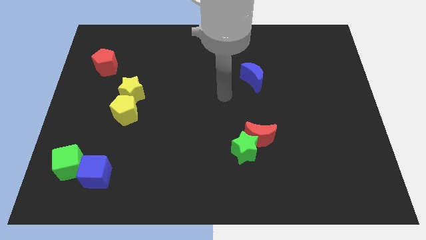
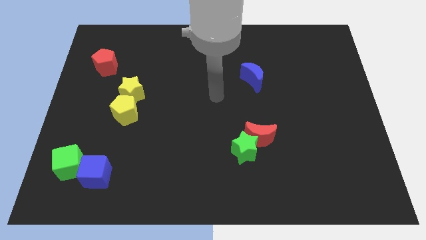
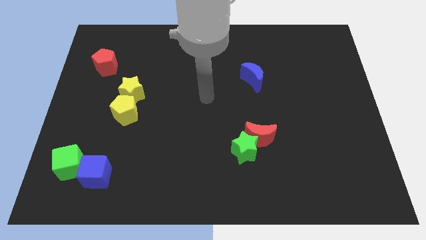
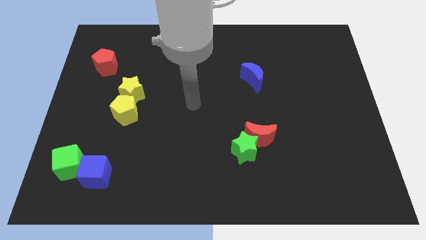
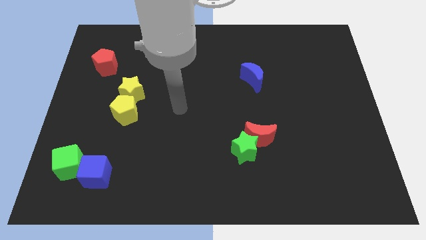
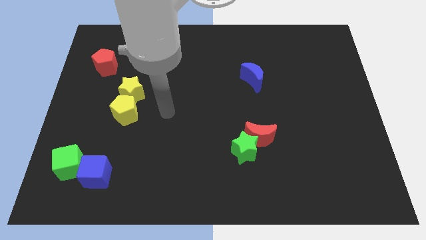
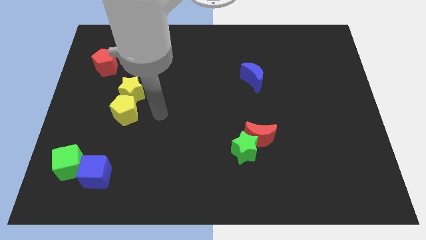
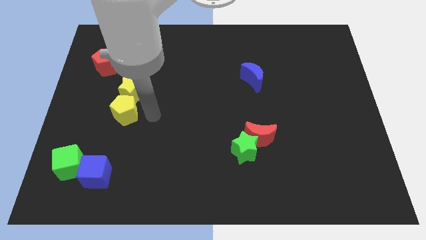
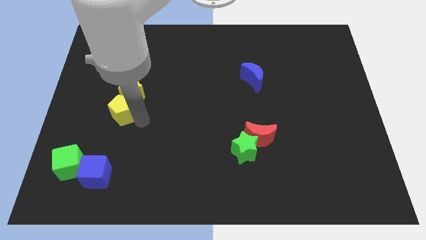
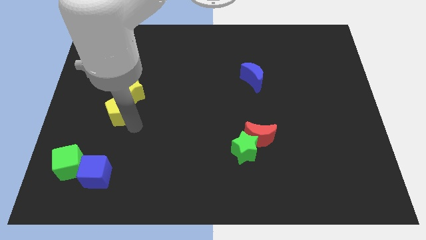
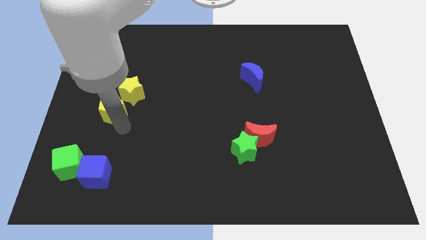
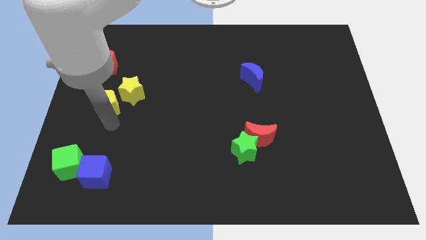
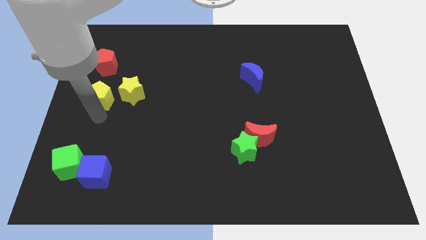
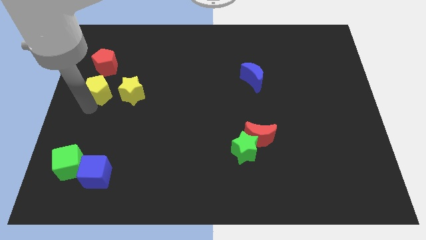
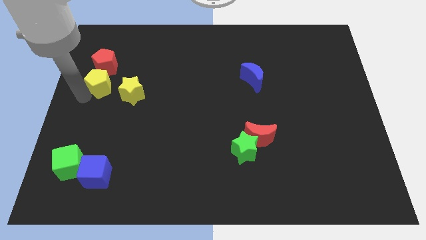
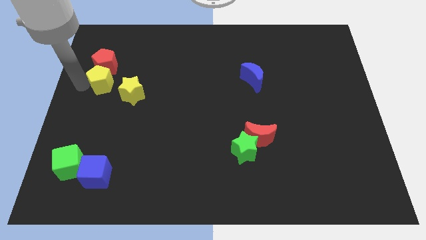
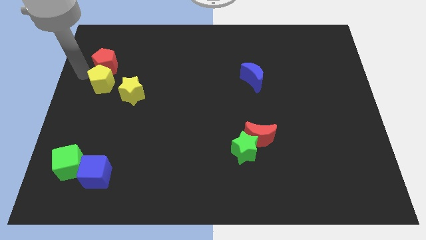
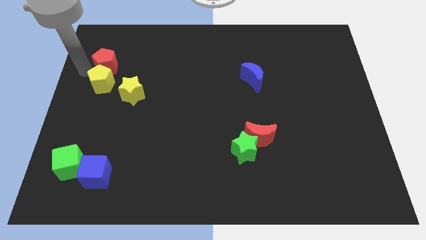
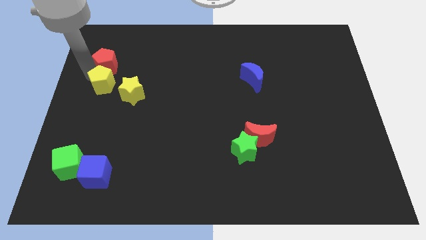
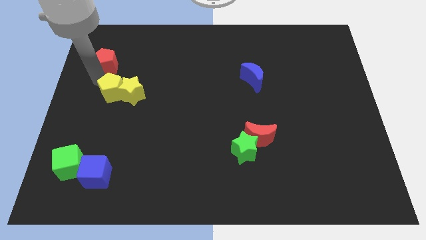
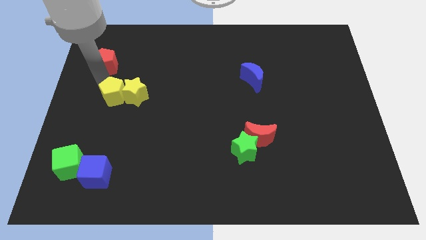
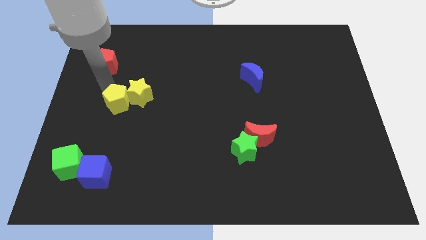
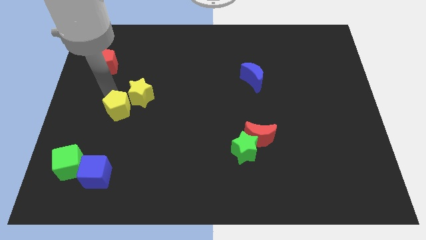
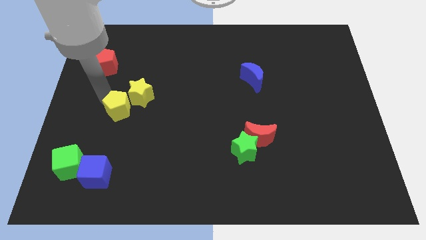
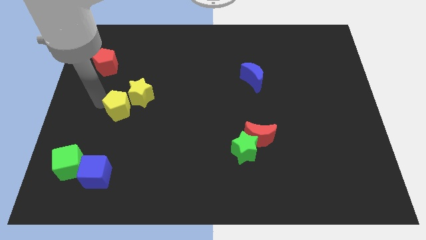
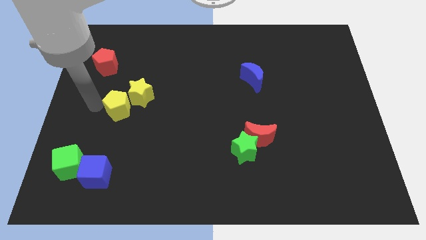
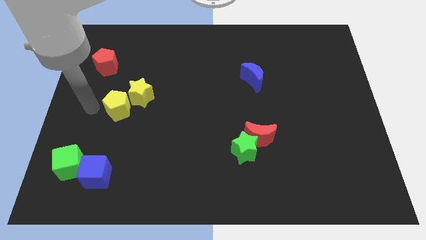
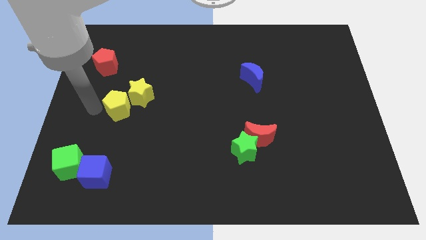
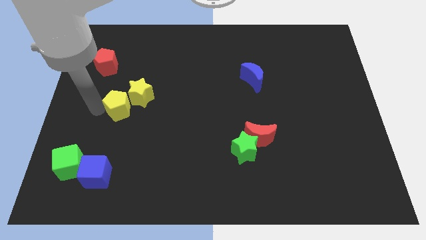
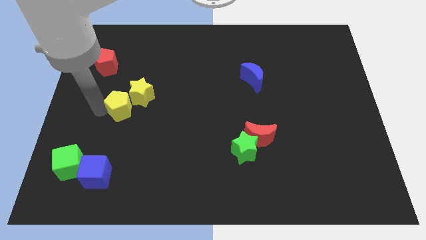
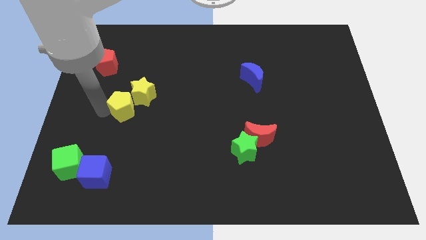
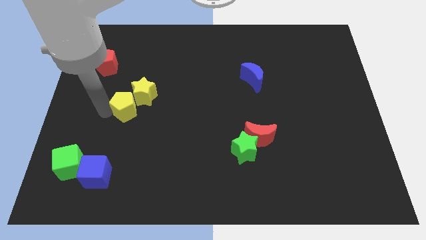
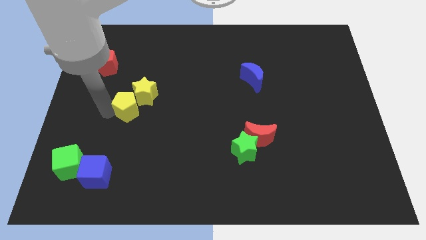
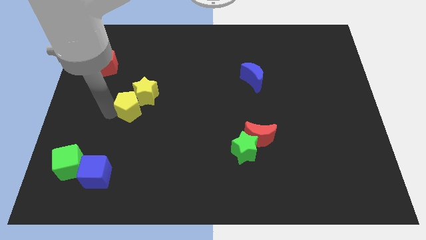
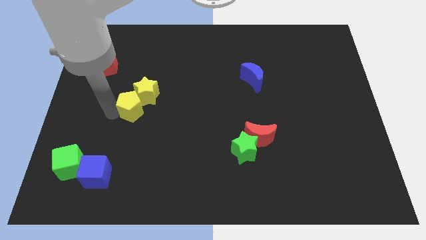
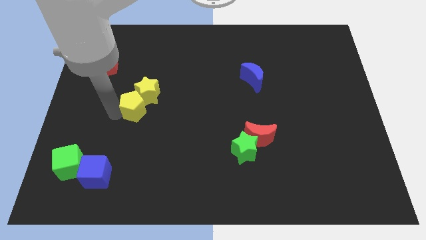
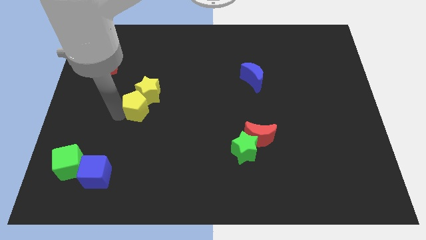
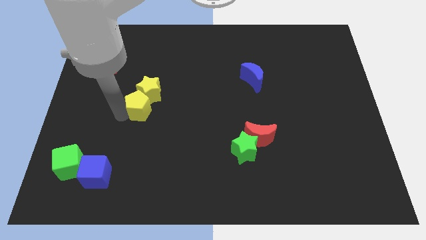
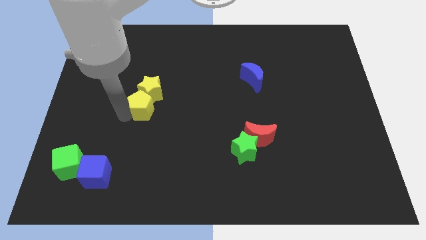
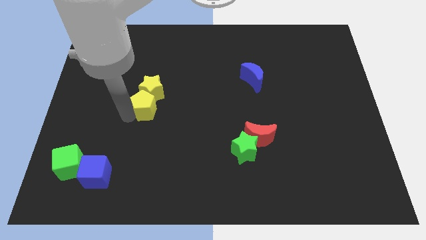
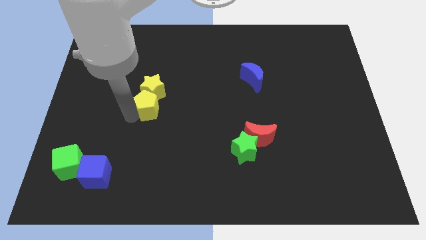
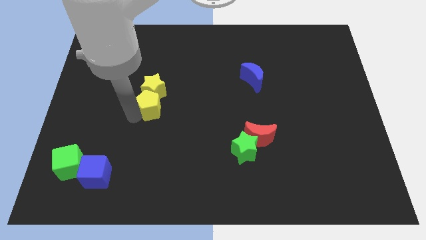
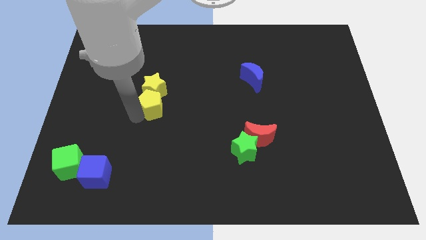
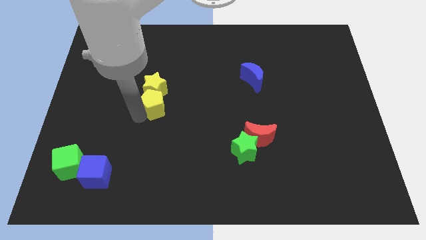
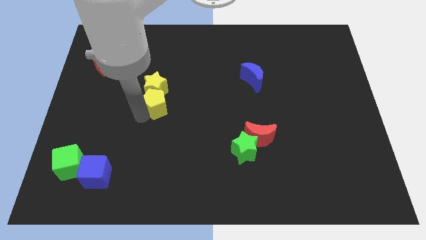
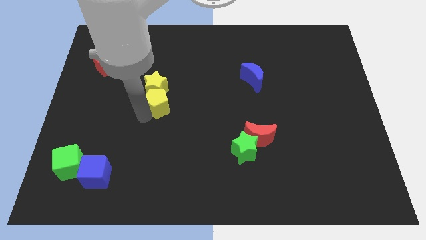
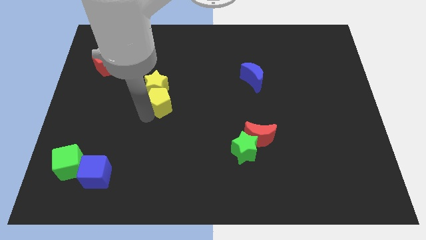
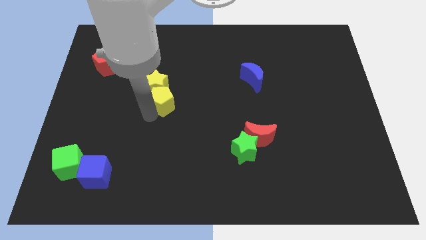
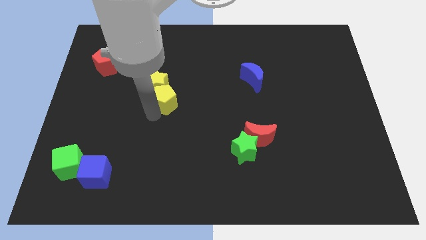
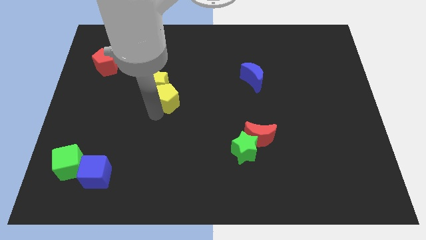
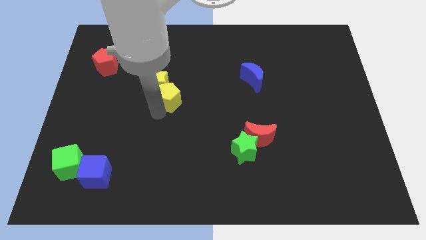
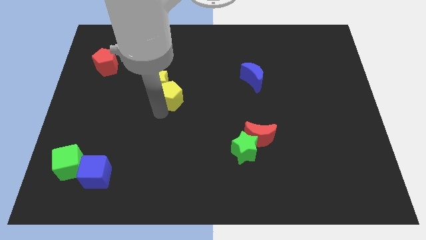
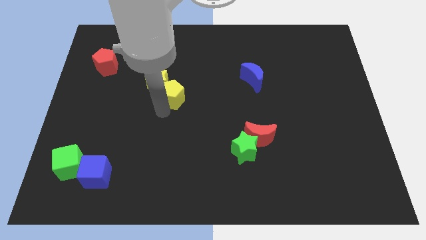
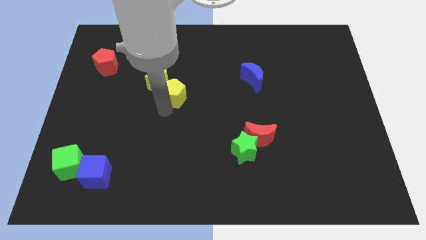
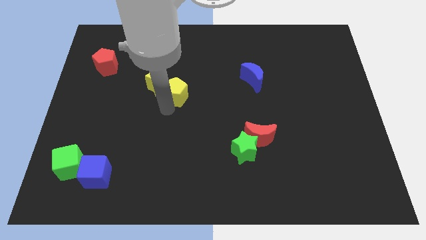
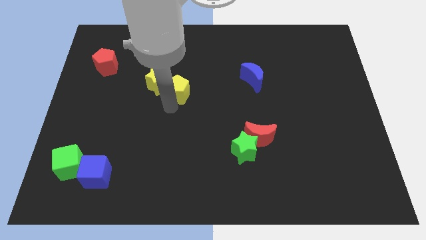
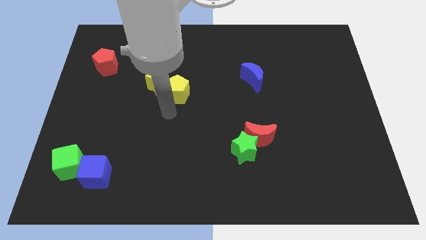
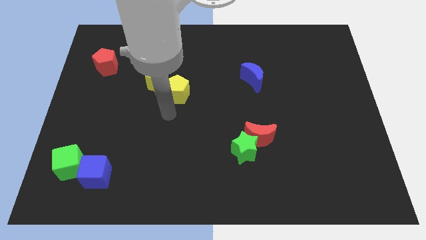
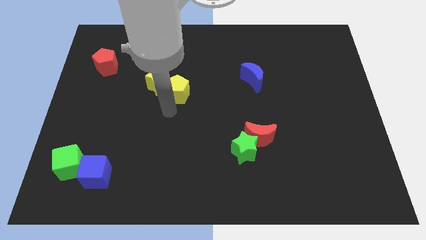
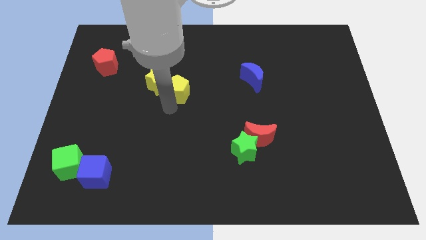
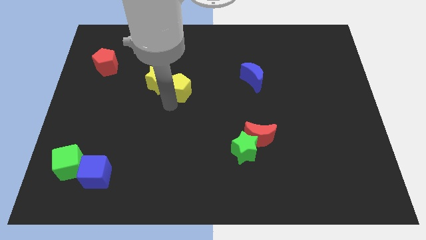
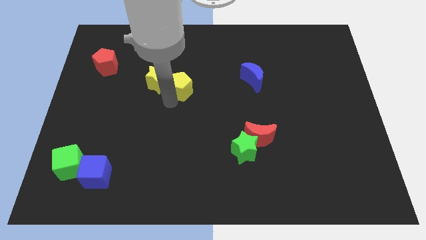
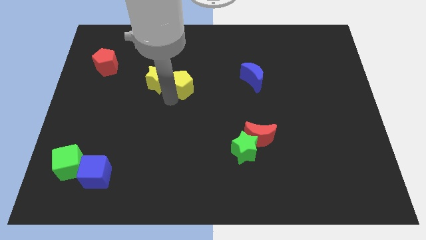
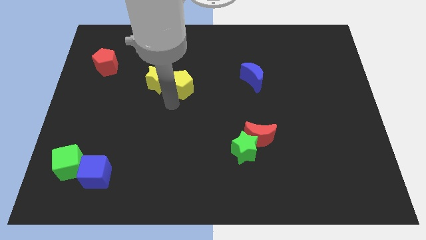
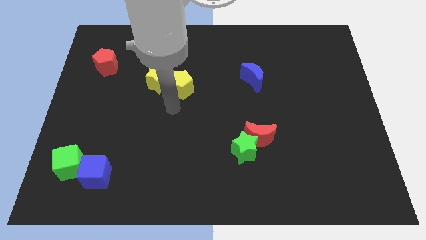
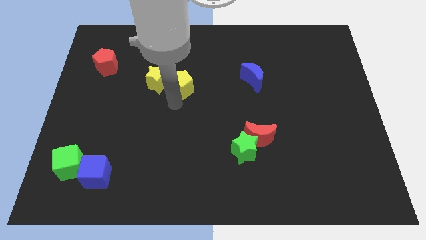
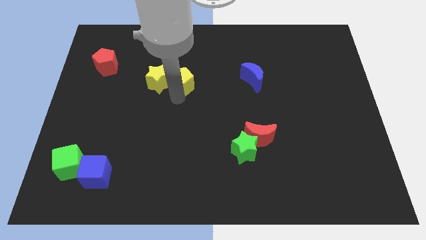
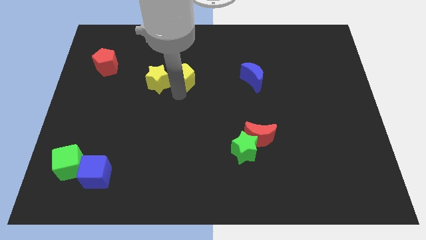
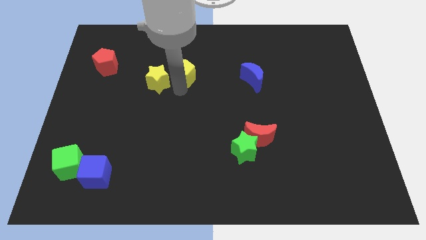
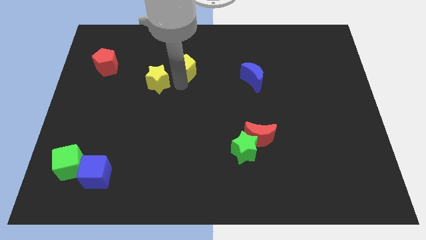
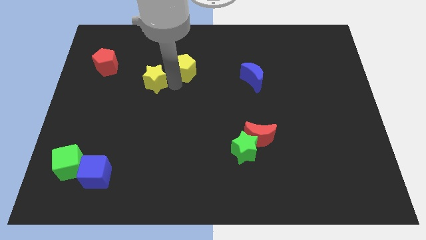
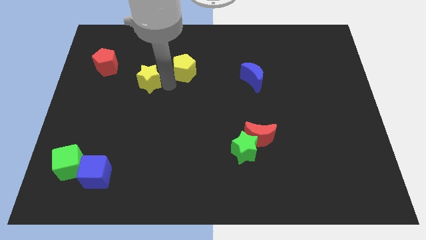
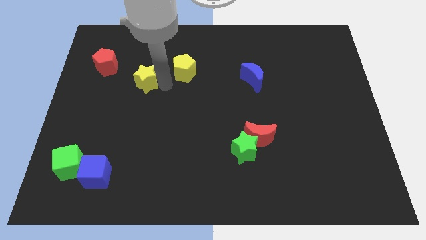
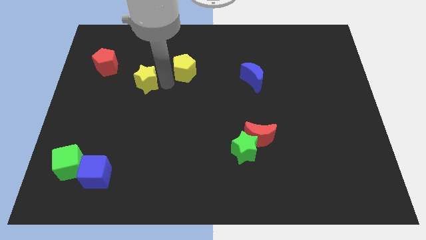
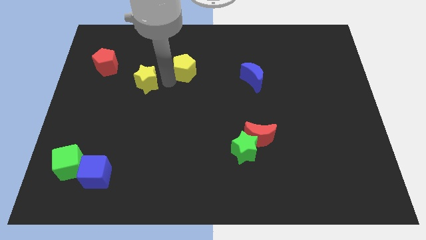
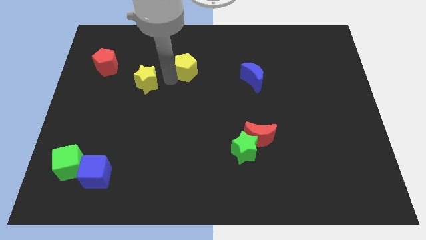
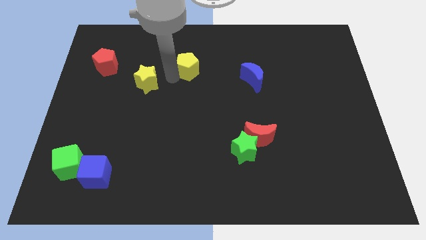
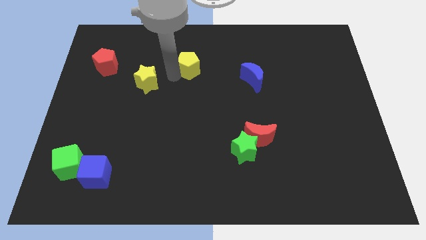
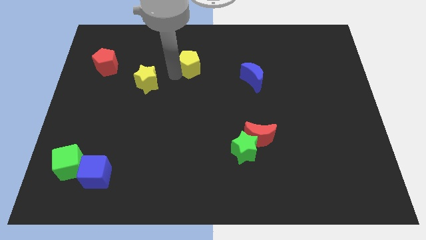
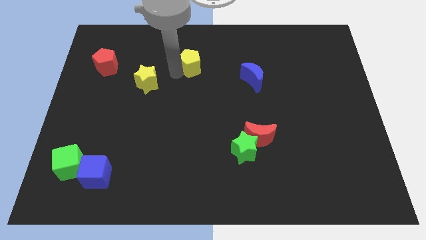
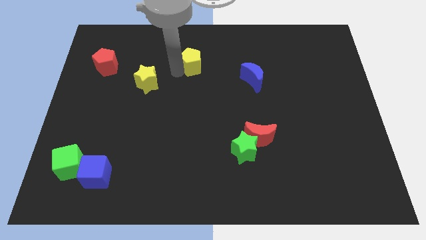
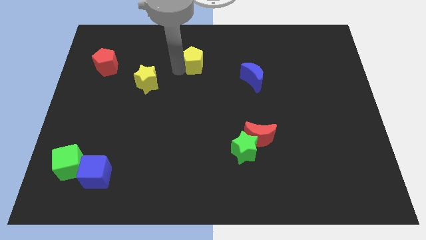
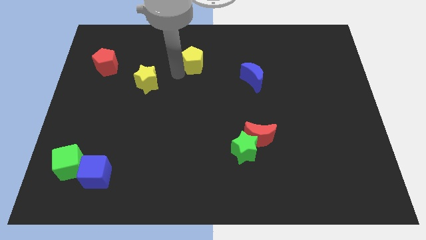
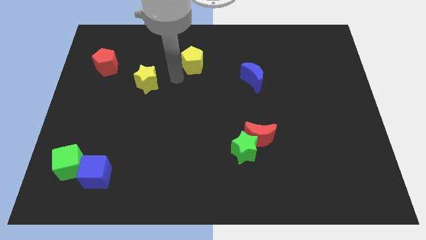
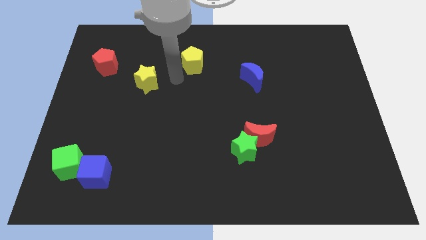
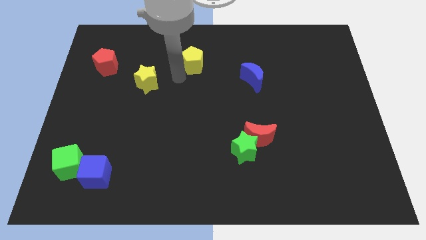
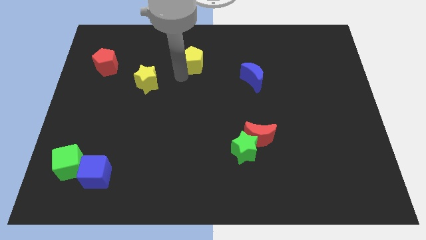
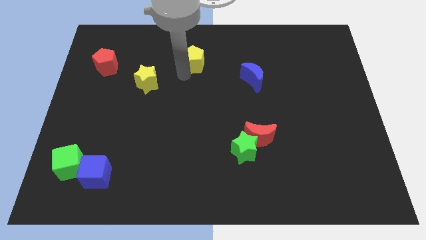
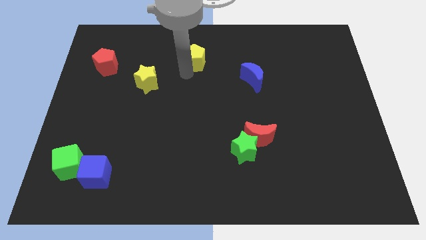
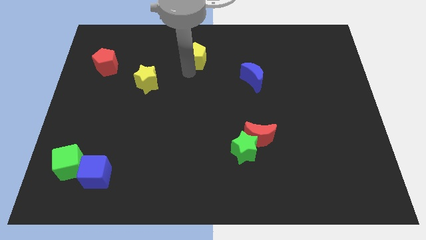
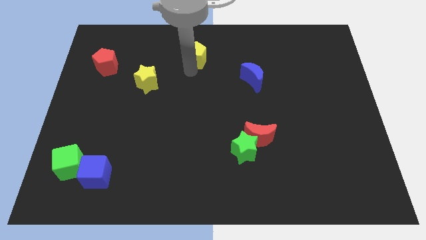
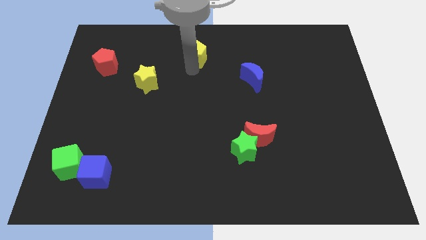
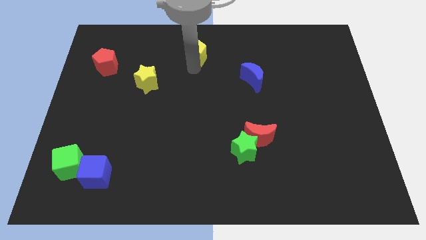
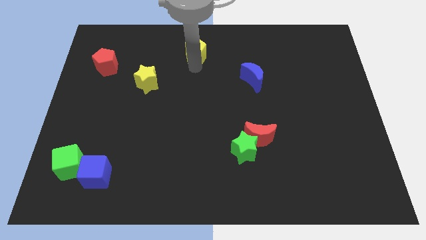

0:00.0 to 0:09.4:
push the yellow pentagon to the top side
